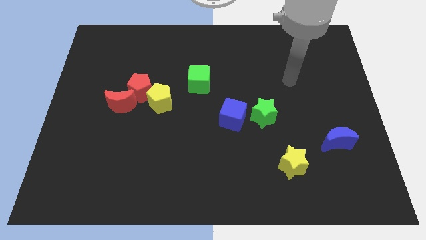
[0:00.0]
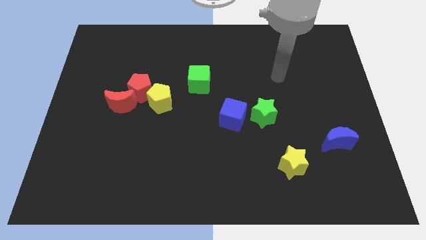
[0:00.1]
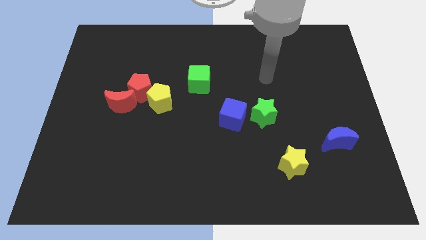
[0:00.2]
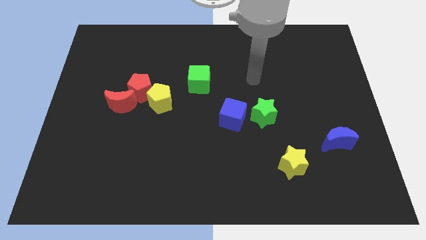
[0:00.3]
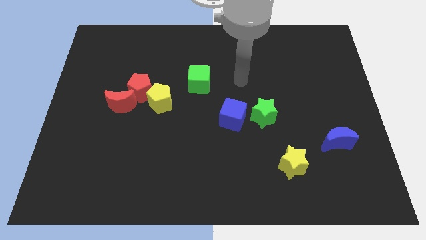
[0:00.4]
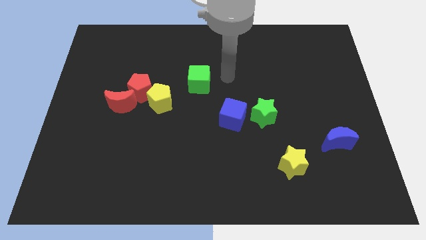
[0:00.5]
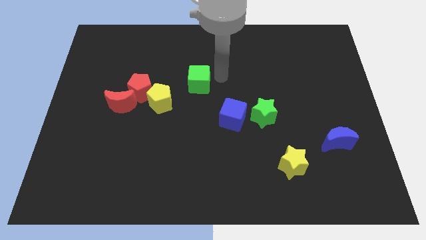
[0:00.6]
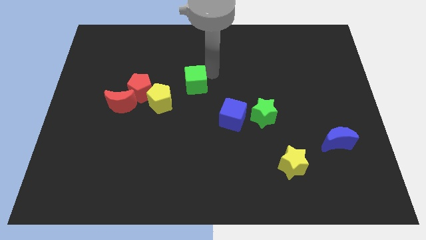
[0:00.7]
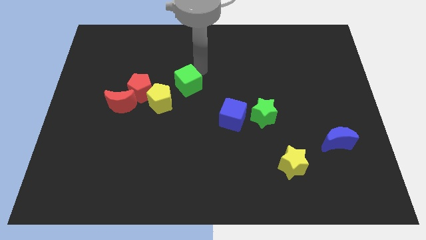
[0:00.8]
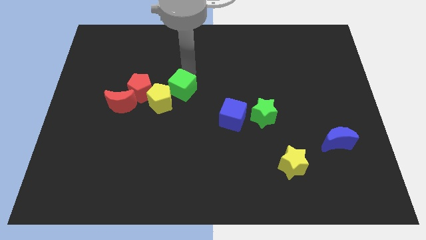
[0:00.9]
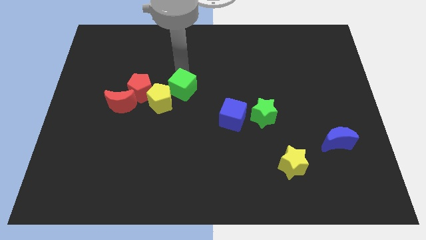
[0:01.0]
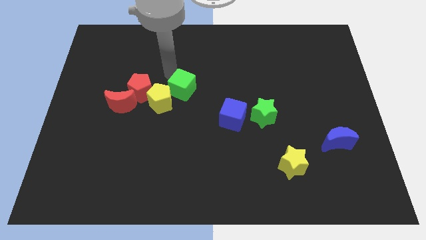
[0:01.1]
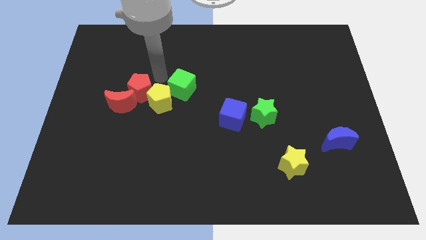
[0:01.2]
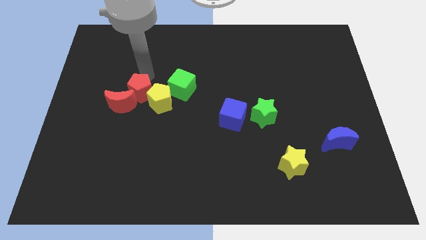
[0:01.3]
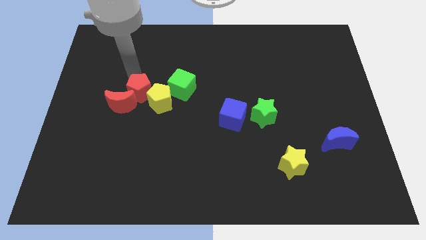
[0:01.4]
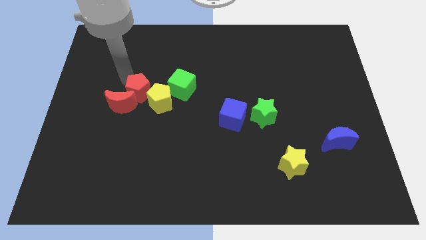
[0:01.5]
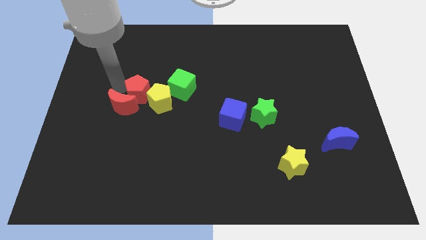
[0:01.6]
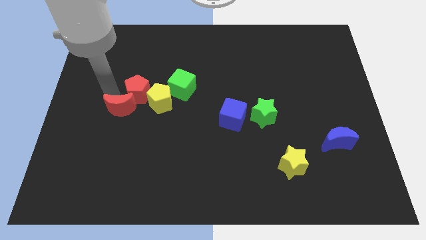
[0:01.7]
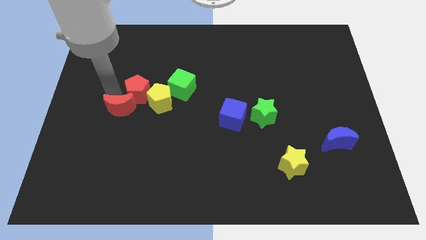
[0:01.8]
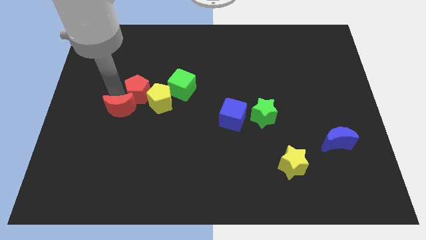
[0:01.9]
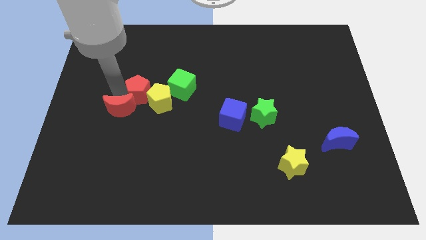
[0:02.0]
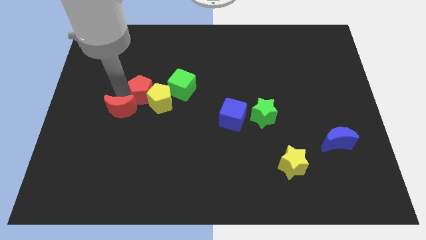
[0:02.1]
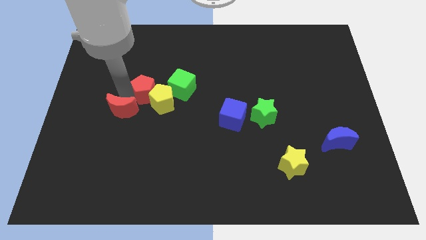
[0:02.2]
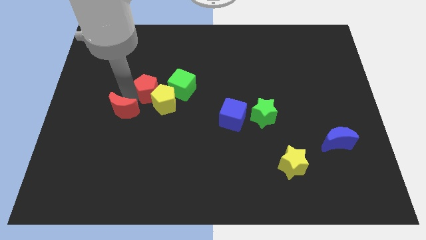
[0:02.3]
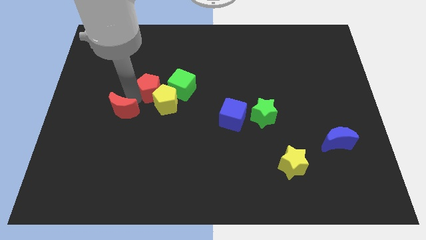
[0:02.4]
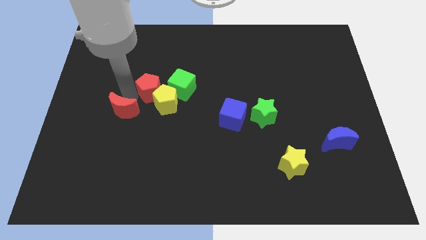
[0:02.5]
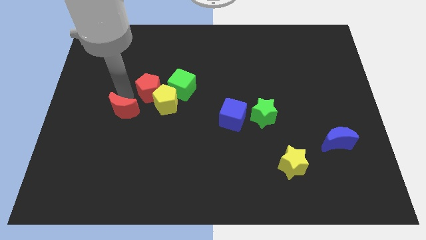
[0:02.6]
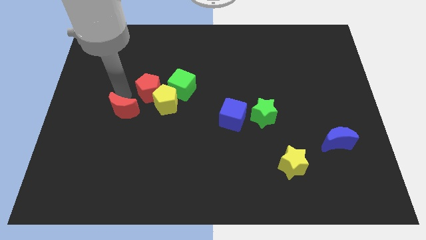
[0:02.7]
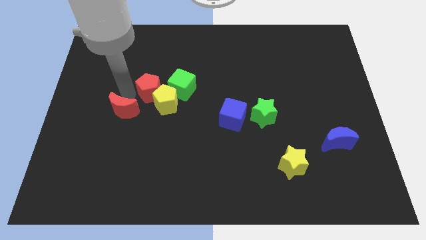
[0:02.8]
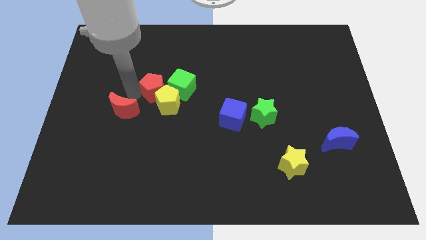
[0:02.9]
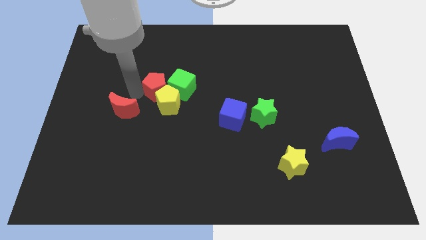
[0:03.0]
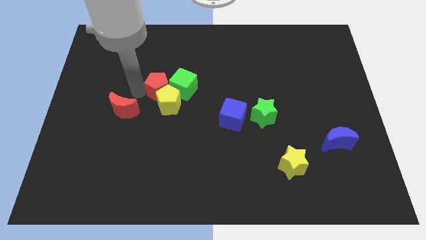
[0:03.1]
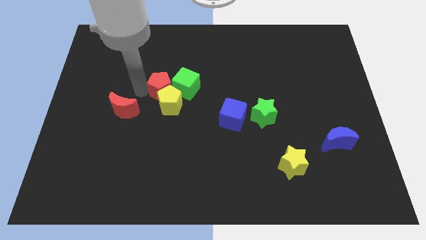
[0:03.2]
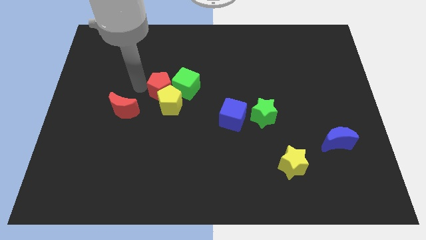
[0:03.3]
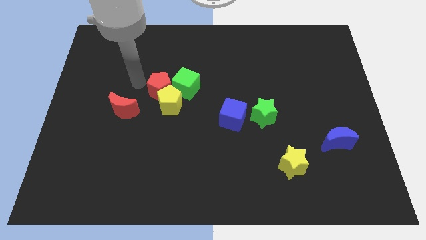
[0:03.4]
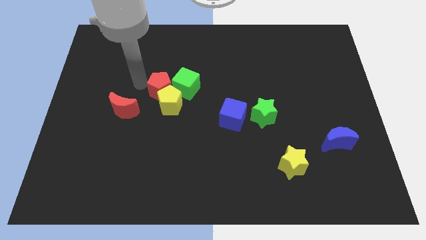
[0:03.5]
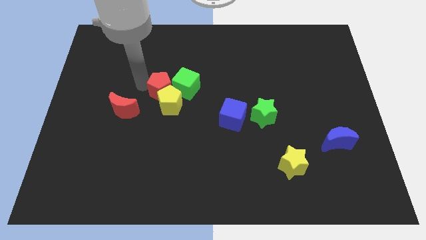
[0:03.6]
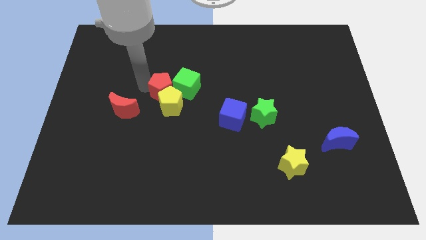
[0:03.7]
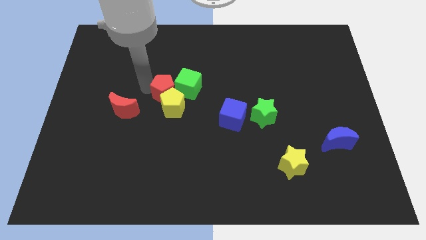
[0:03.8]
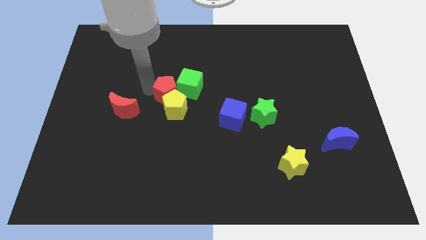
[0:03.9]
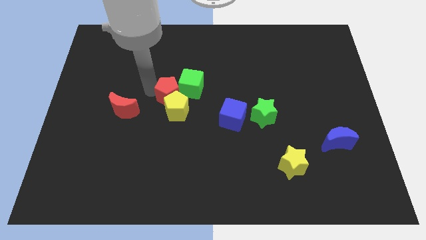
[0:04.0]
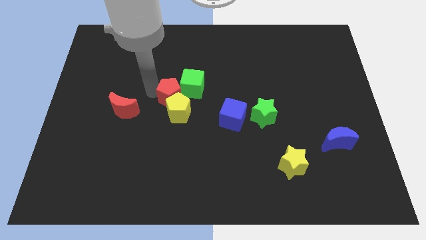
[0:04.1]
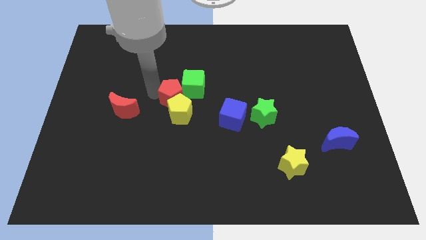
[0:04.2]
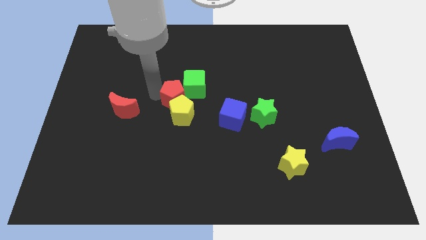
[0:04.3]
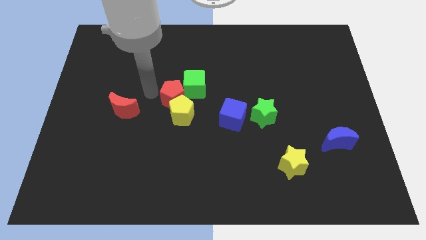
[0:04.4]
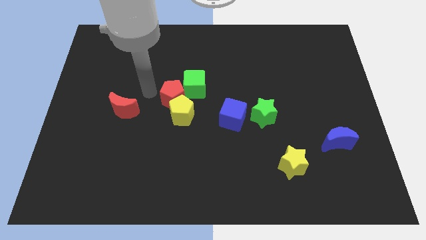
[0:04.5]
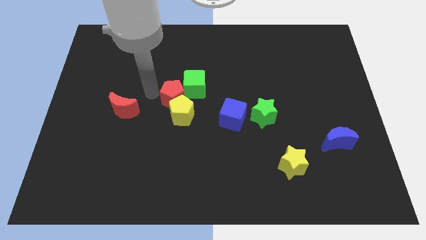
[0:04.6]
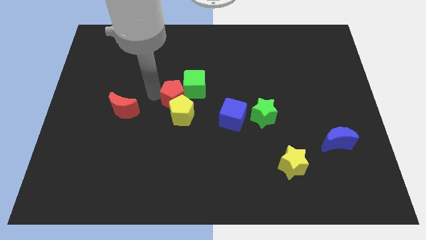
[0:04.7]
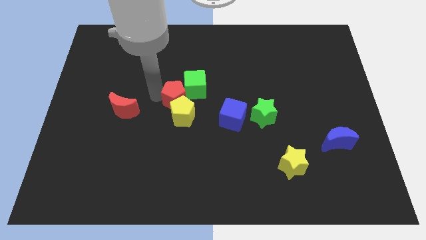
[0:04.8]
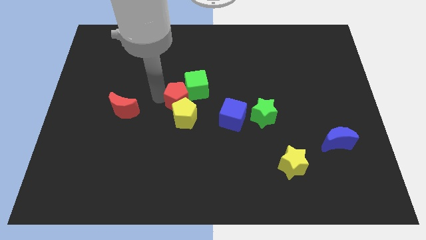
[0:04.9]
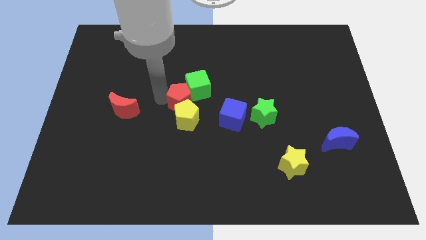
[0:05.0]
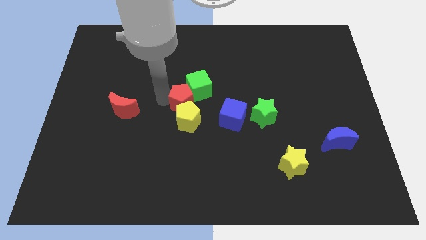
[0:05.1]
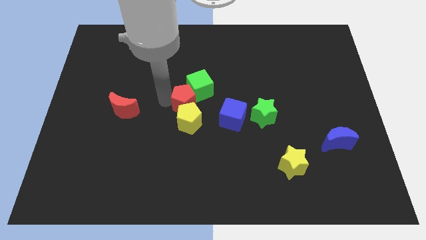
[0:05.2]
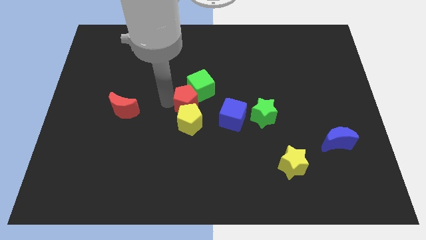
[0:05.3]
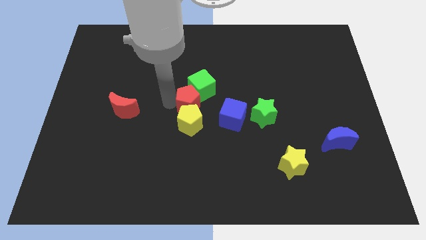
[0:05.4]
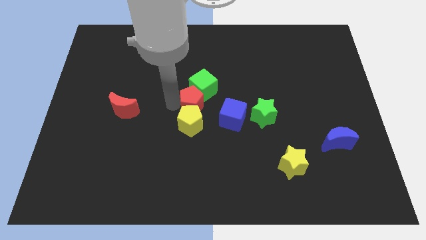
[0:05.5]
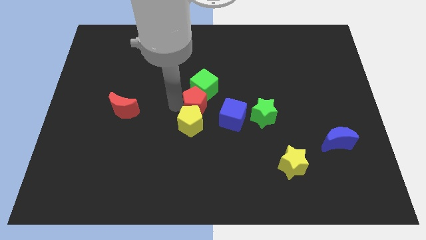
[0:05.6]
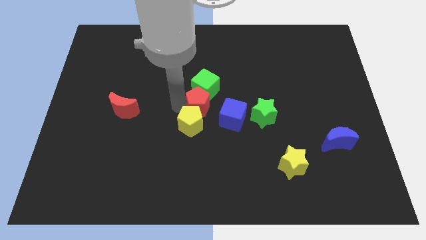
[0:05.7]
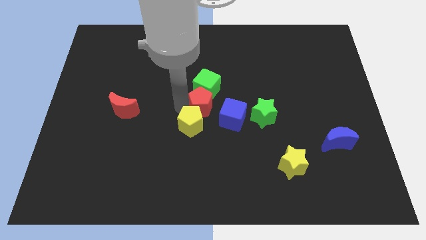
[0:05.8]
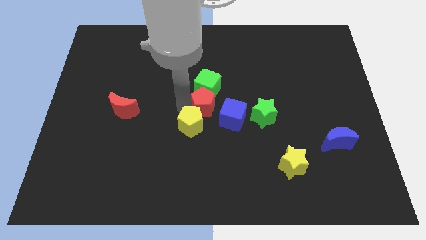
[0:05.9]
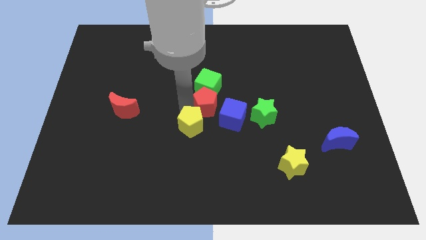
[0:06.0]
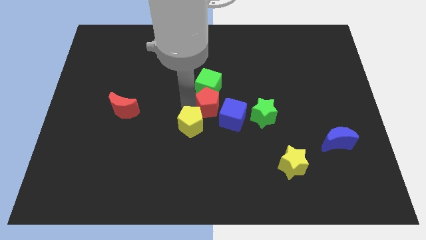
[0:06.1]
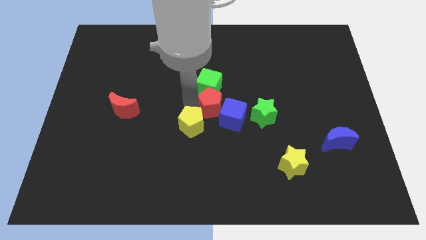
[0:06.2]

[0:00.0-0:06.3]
move the red pentagon close to the blue cube

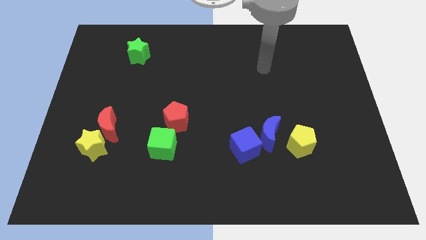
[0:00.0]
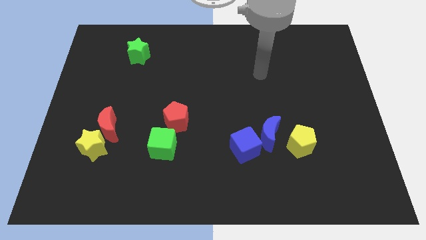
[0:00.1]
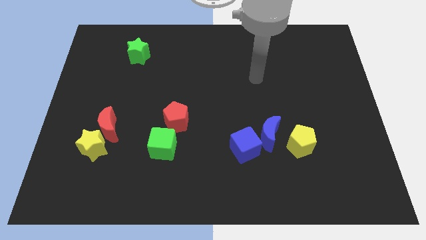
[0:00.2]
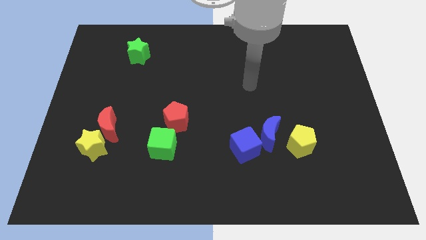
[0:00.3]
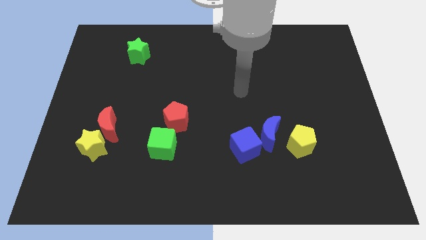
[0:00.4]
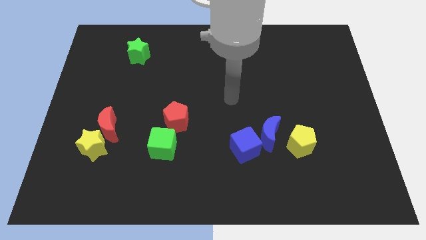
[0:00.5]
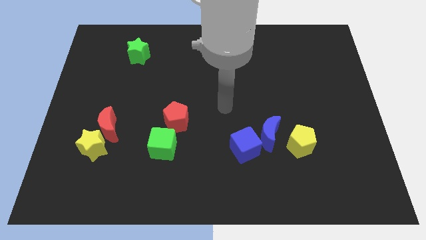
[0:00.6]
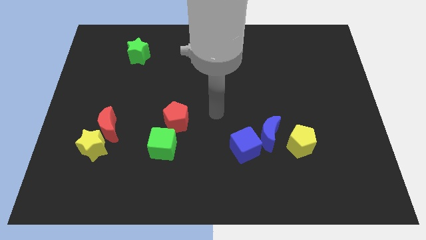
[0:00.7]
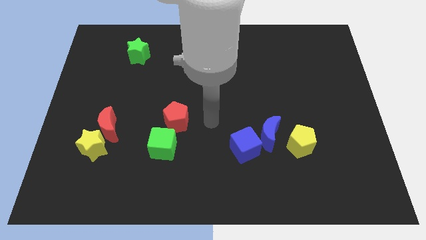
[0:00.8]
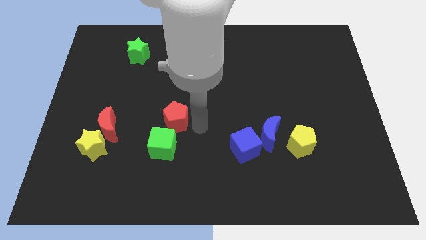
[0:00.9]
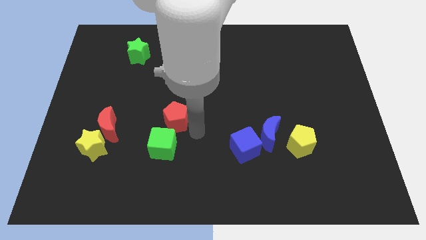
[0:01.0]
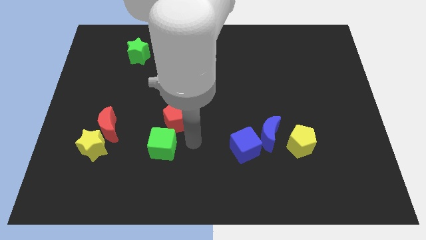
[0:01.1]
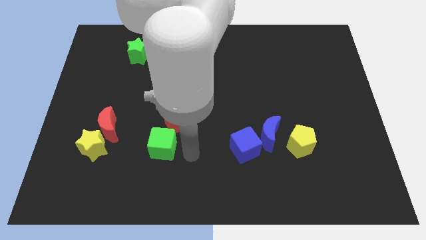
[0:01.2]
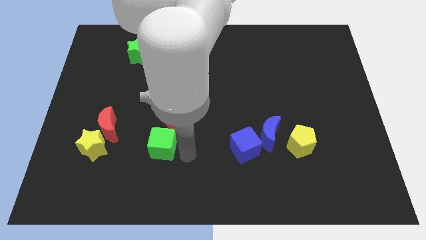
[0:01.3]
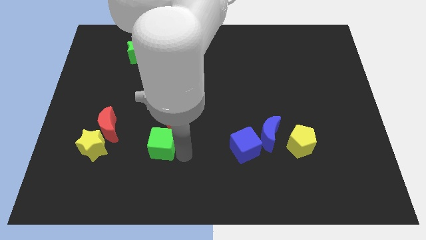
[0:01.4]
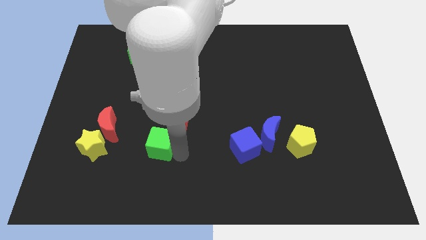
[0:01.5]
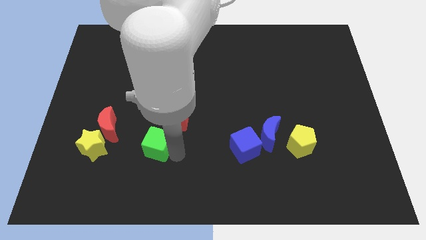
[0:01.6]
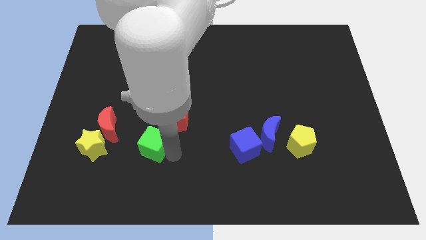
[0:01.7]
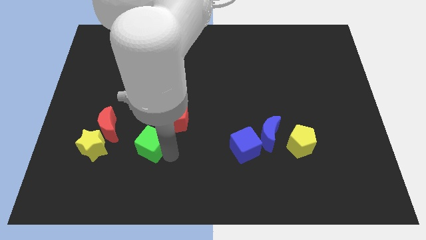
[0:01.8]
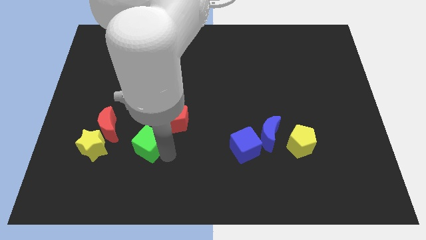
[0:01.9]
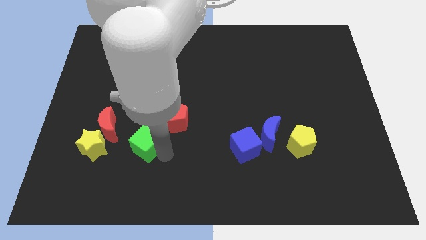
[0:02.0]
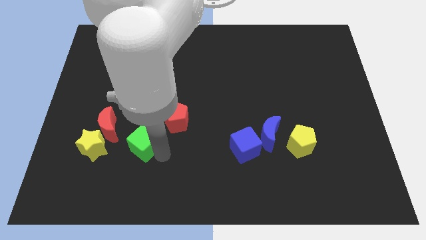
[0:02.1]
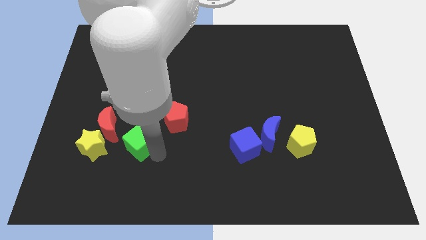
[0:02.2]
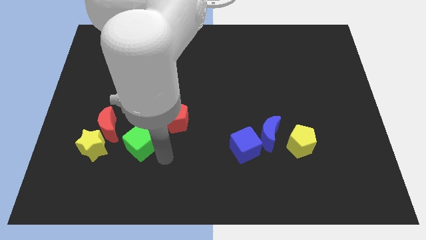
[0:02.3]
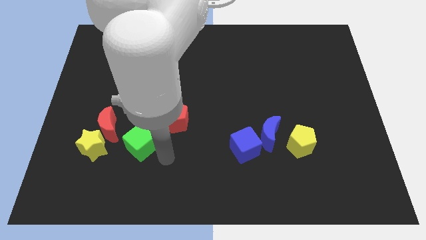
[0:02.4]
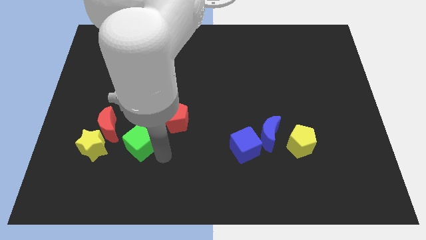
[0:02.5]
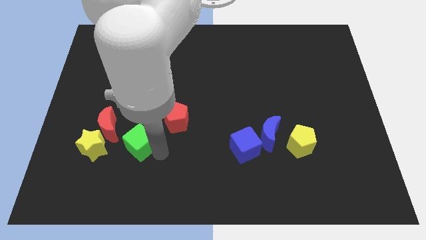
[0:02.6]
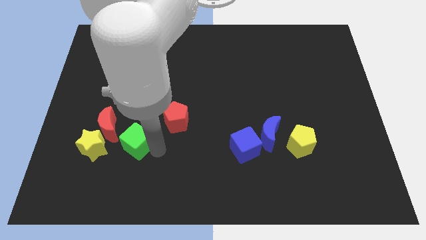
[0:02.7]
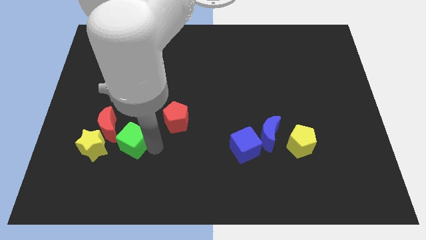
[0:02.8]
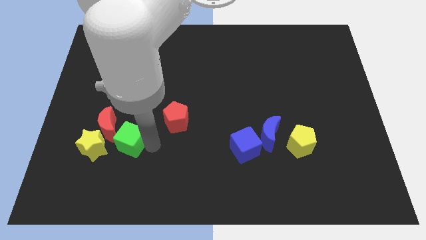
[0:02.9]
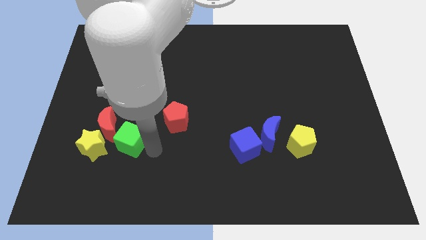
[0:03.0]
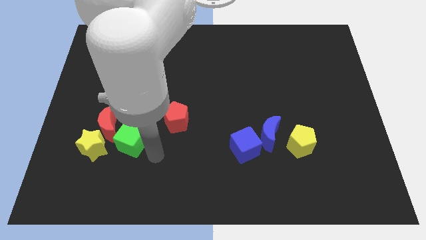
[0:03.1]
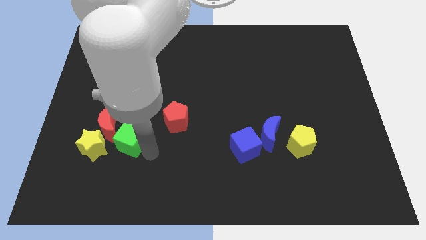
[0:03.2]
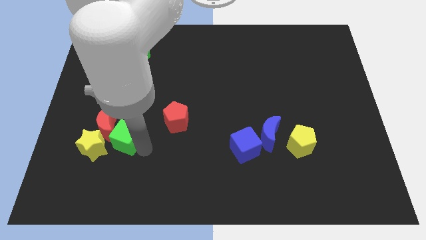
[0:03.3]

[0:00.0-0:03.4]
push the green cube towards the red moon
